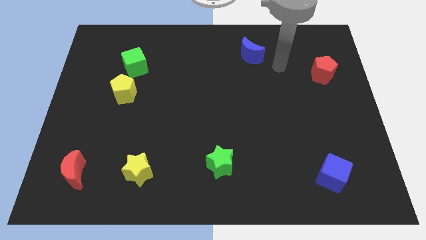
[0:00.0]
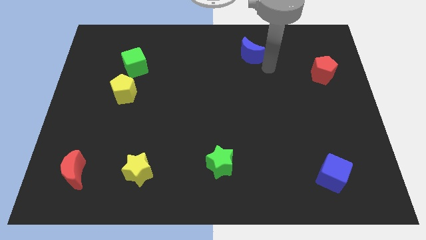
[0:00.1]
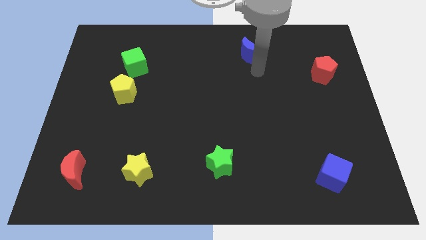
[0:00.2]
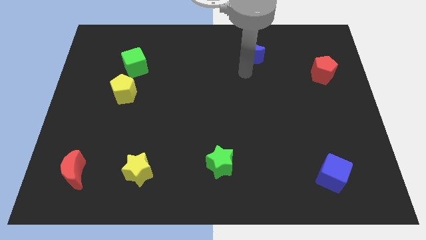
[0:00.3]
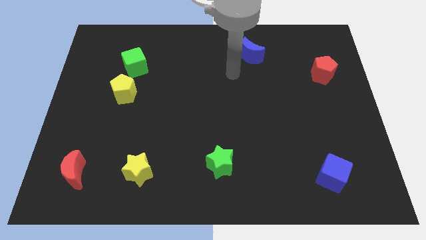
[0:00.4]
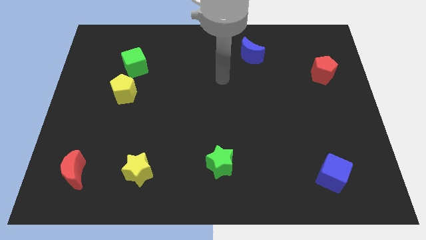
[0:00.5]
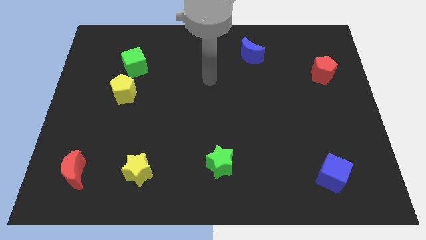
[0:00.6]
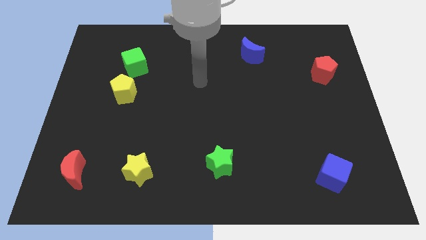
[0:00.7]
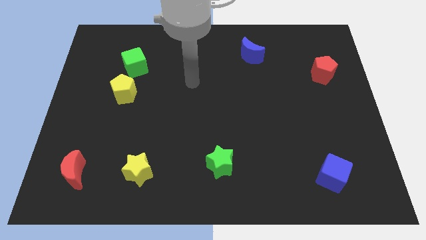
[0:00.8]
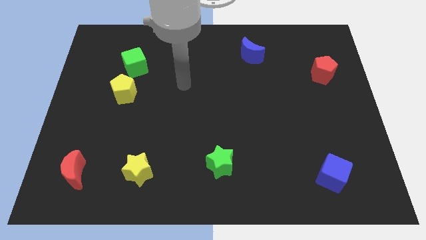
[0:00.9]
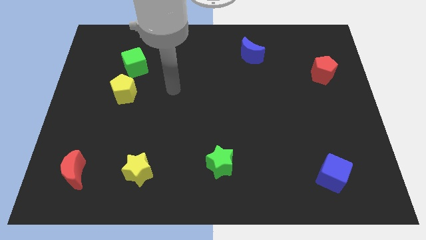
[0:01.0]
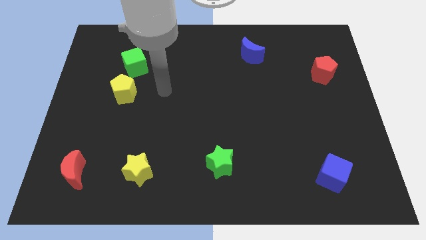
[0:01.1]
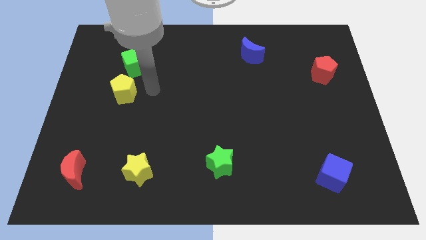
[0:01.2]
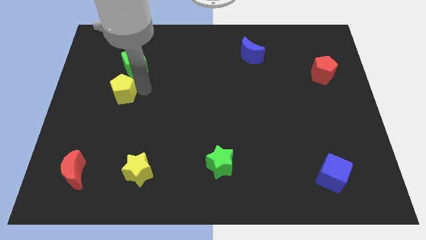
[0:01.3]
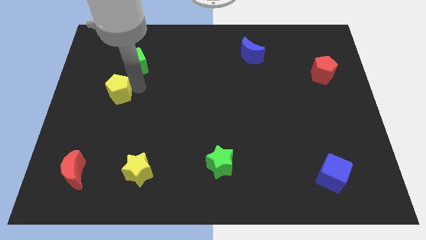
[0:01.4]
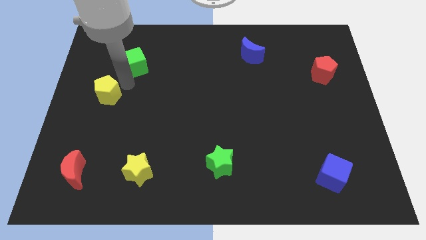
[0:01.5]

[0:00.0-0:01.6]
pull the green cube apart from the yellow pentagon

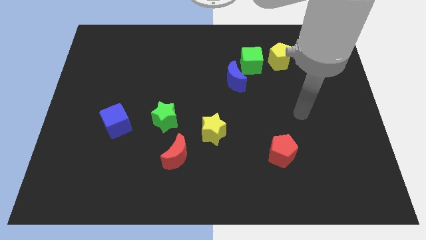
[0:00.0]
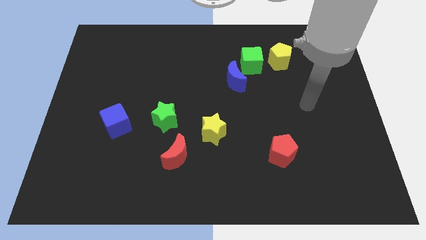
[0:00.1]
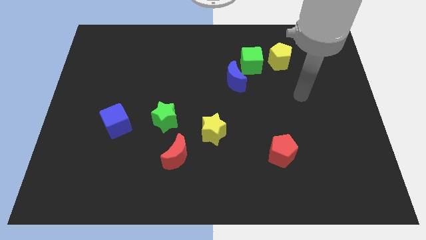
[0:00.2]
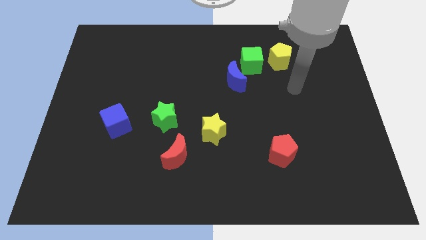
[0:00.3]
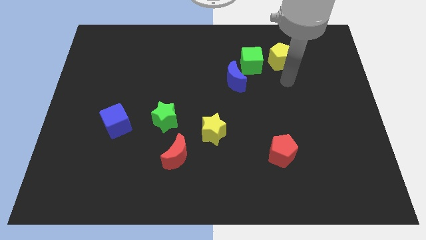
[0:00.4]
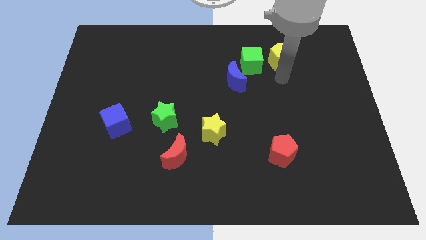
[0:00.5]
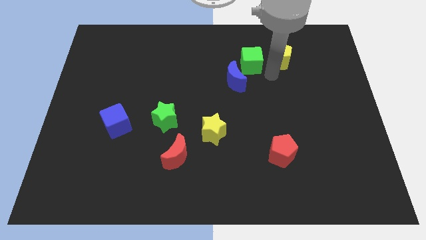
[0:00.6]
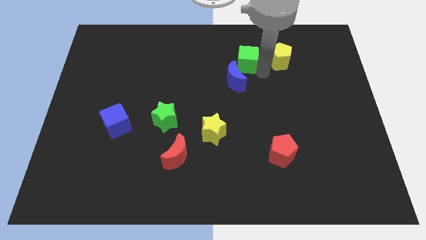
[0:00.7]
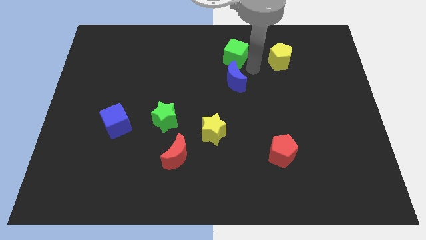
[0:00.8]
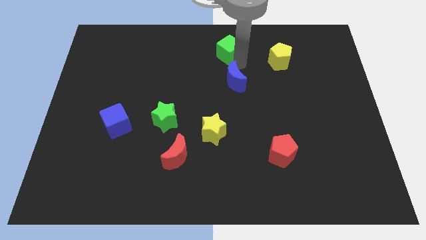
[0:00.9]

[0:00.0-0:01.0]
move the blue moon away from the green cube

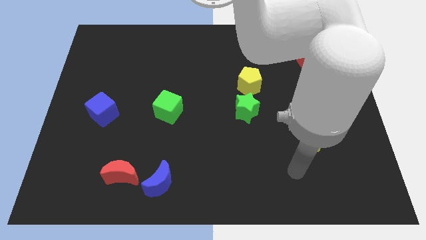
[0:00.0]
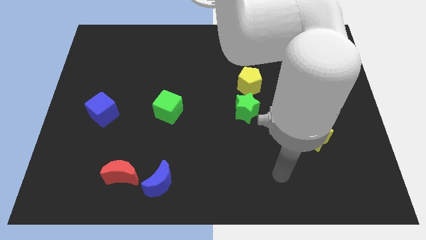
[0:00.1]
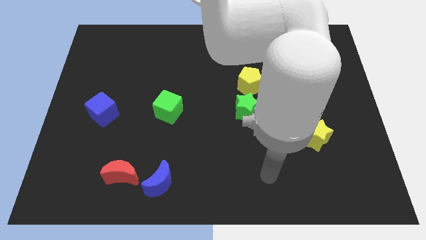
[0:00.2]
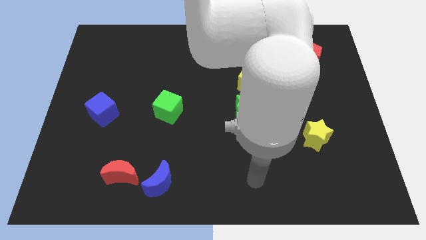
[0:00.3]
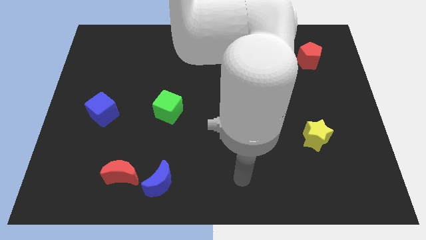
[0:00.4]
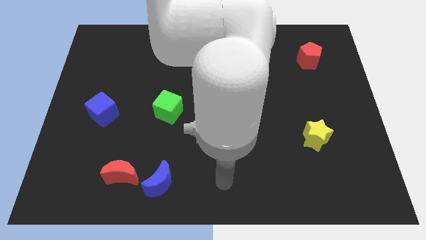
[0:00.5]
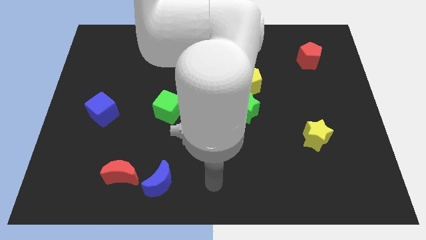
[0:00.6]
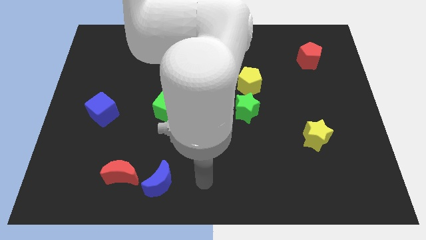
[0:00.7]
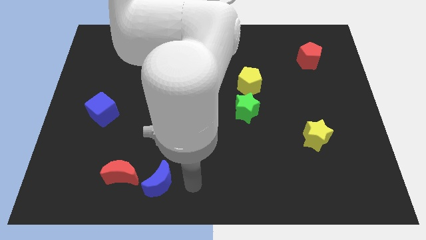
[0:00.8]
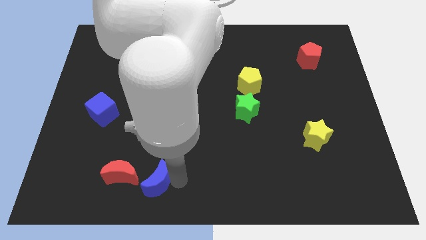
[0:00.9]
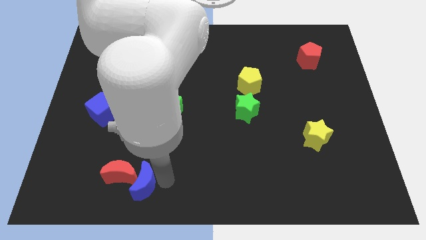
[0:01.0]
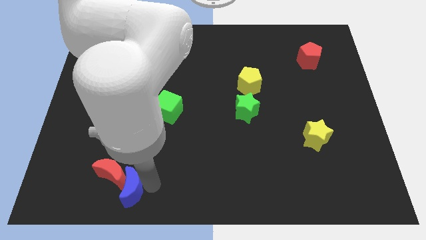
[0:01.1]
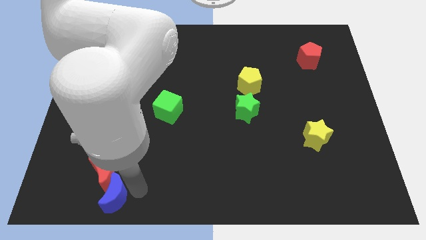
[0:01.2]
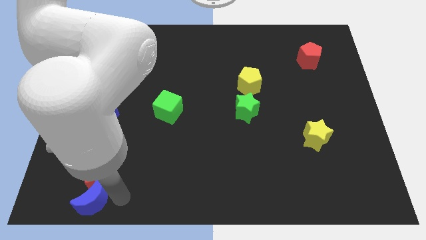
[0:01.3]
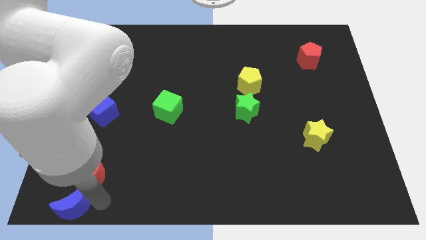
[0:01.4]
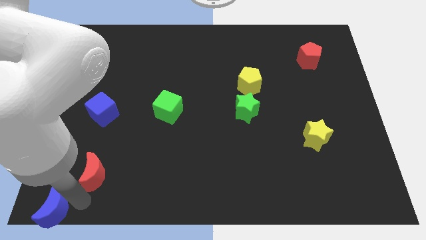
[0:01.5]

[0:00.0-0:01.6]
pull the red moon apart from the blue moon

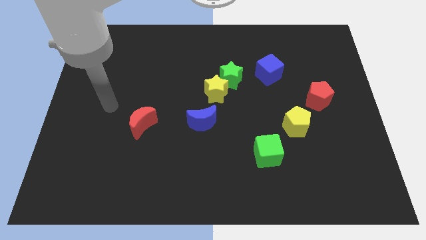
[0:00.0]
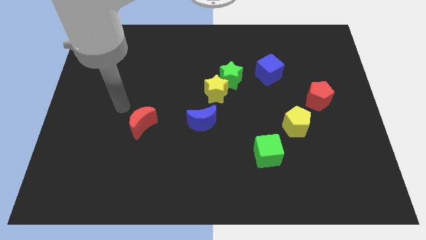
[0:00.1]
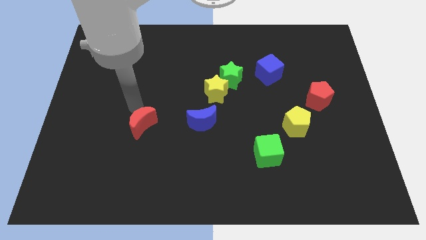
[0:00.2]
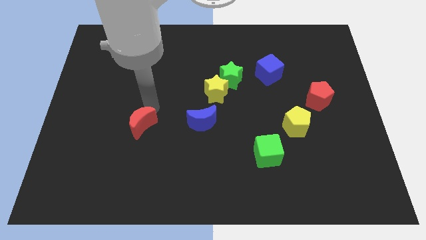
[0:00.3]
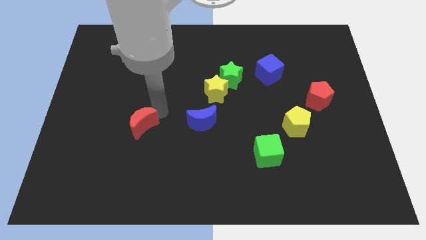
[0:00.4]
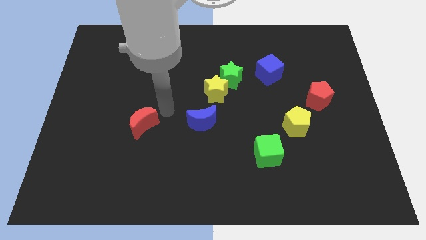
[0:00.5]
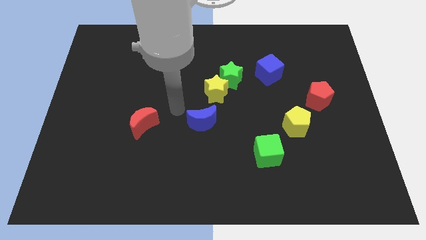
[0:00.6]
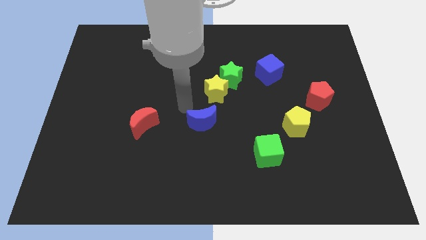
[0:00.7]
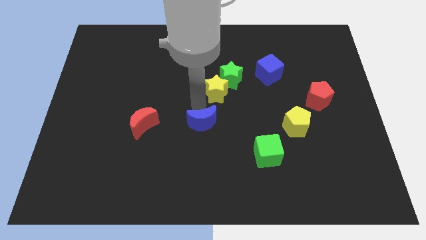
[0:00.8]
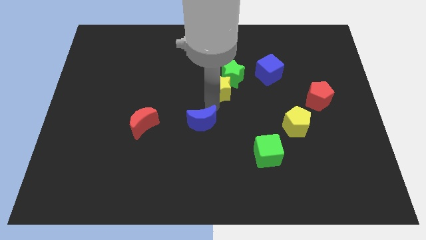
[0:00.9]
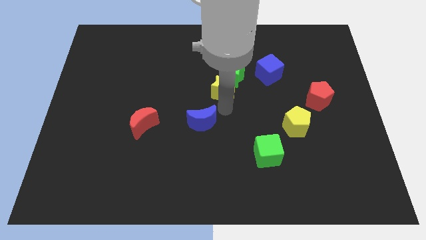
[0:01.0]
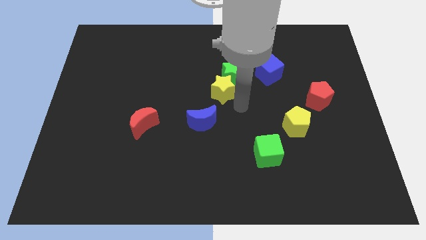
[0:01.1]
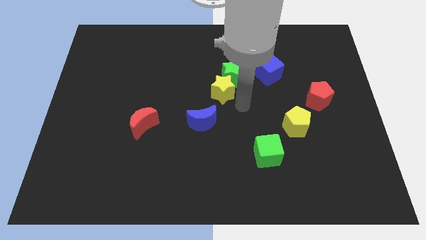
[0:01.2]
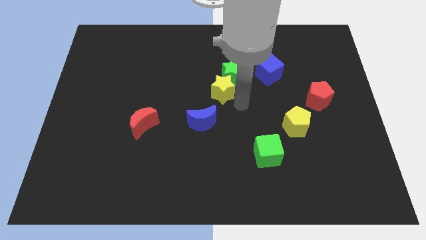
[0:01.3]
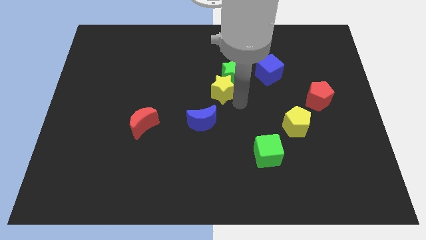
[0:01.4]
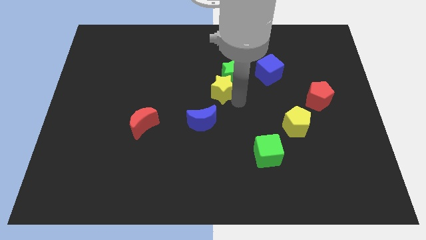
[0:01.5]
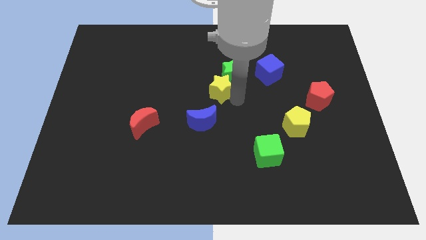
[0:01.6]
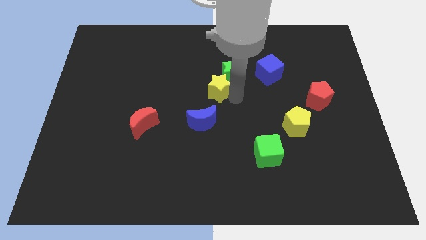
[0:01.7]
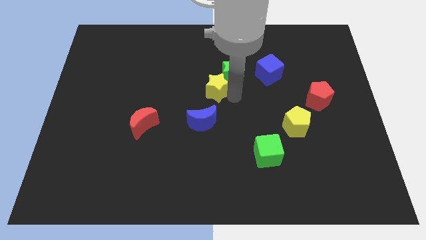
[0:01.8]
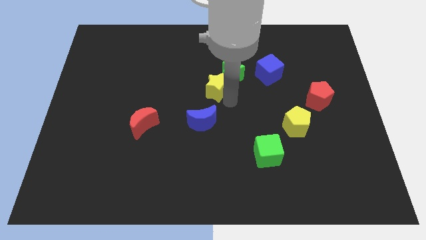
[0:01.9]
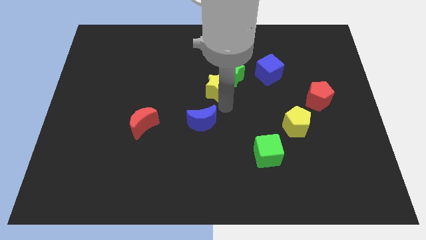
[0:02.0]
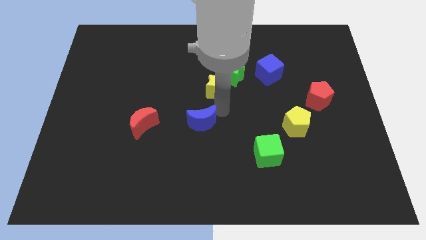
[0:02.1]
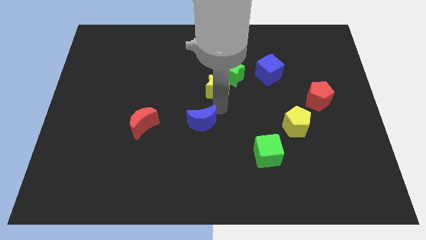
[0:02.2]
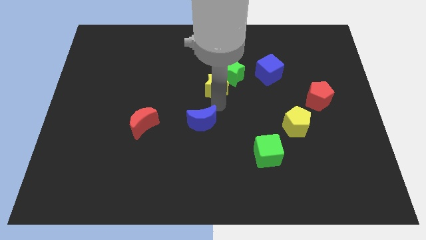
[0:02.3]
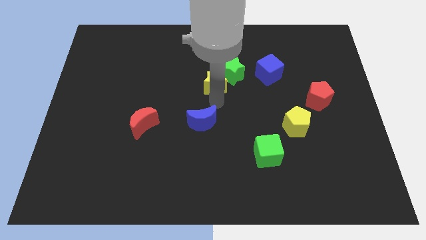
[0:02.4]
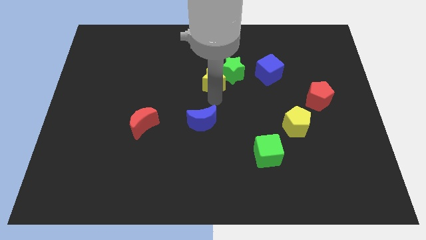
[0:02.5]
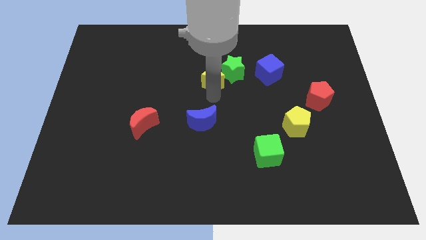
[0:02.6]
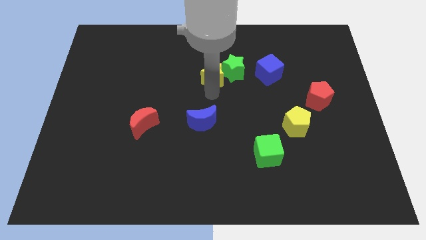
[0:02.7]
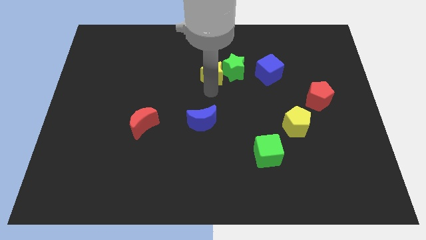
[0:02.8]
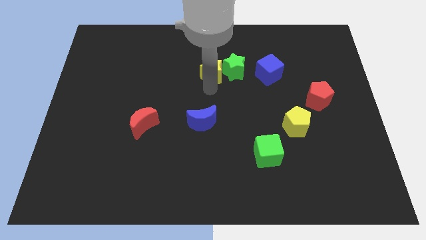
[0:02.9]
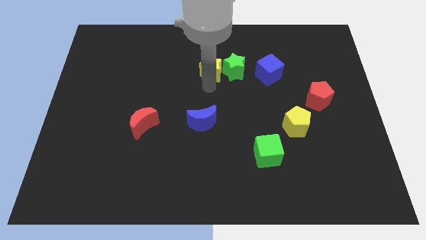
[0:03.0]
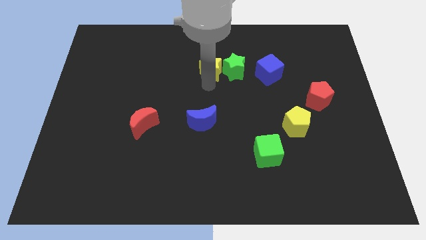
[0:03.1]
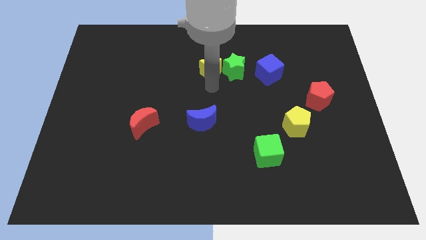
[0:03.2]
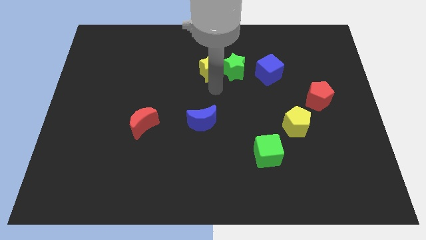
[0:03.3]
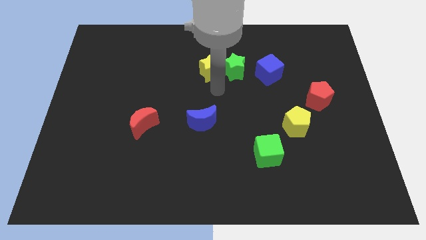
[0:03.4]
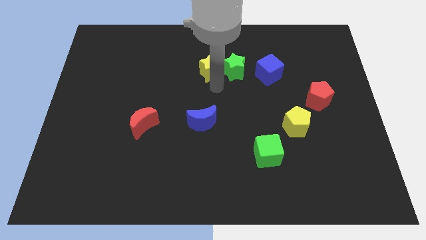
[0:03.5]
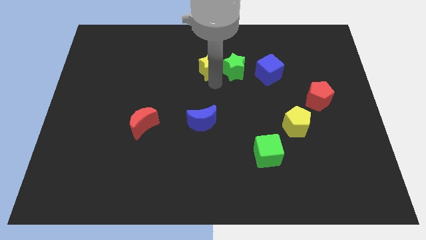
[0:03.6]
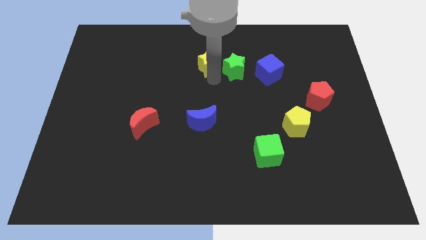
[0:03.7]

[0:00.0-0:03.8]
move the yellow star away from the green star and blue moon

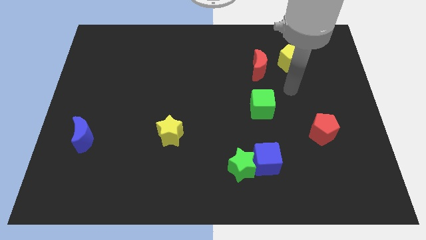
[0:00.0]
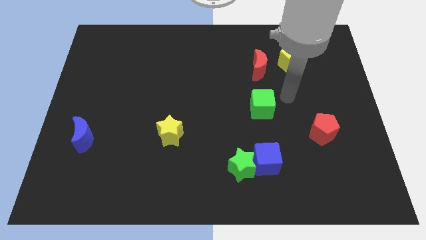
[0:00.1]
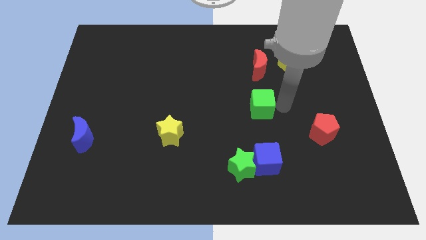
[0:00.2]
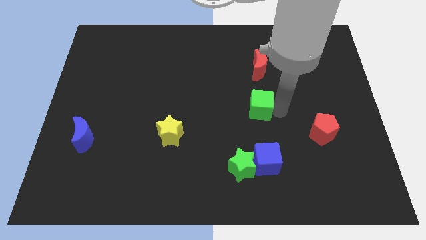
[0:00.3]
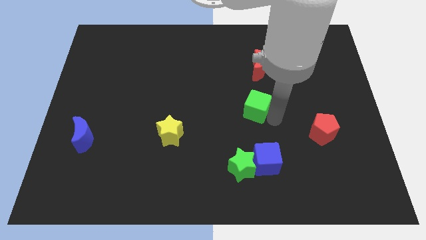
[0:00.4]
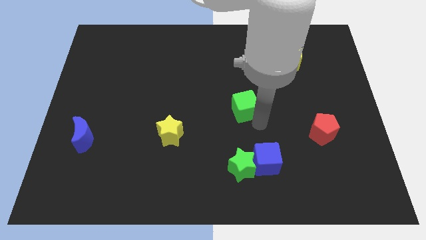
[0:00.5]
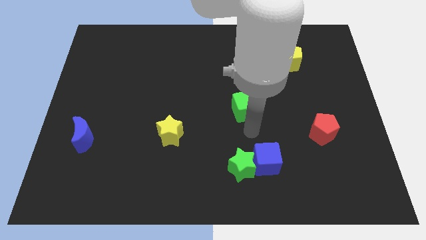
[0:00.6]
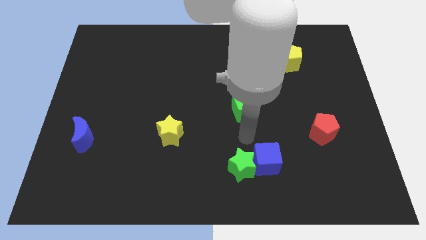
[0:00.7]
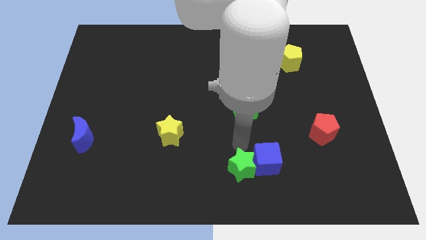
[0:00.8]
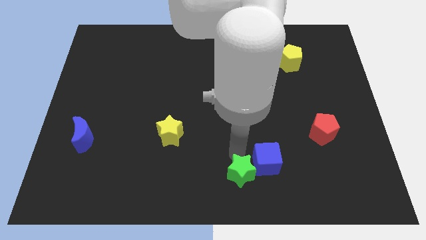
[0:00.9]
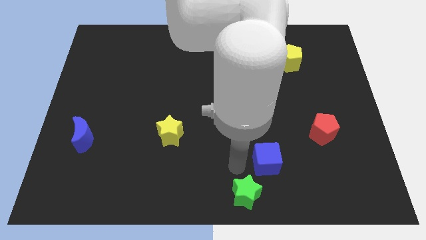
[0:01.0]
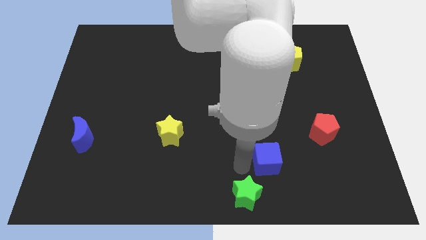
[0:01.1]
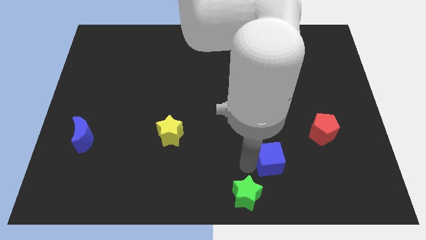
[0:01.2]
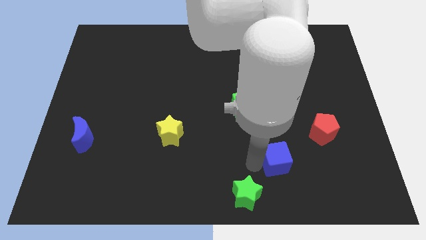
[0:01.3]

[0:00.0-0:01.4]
separate the blue cube from the green star
